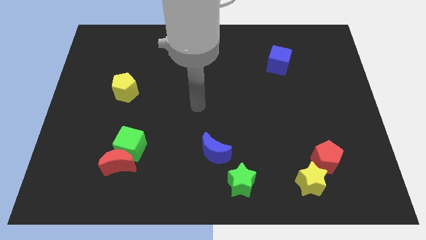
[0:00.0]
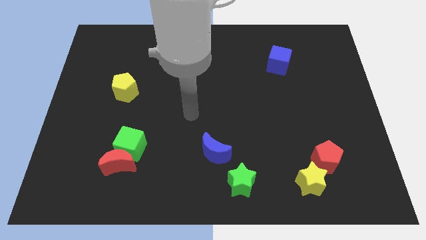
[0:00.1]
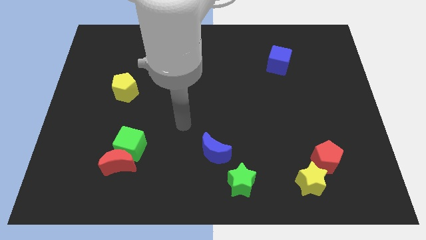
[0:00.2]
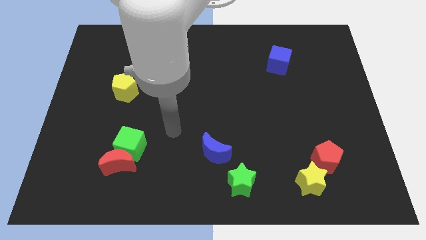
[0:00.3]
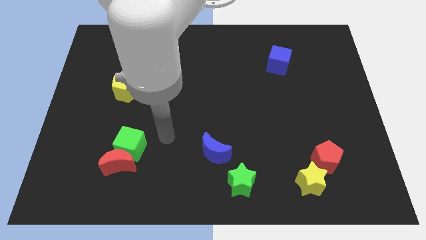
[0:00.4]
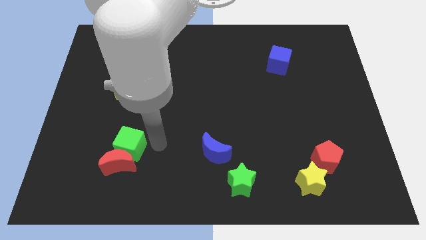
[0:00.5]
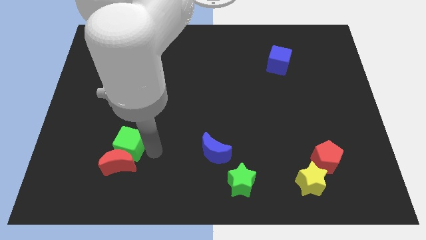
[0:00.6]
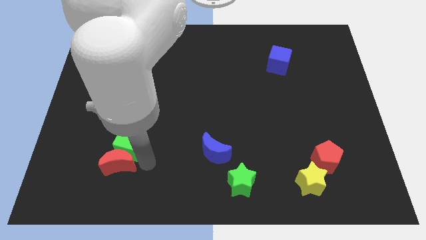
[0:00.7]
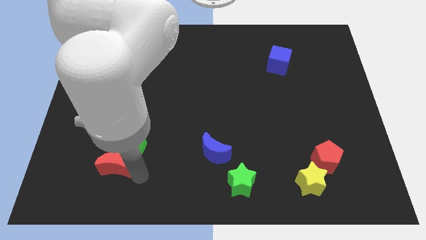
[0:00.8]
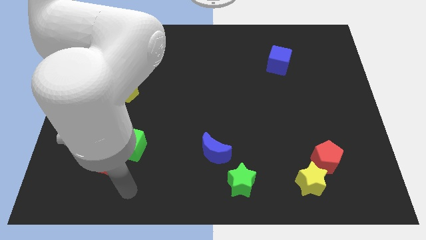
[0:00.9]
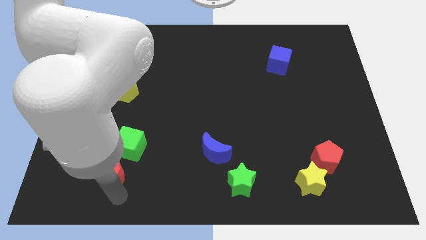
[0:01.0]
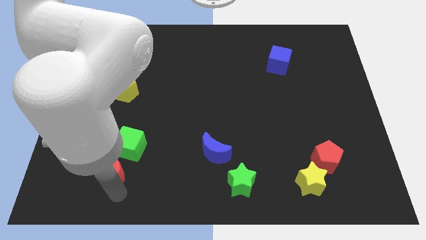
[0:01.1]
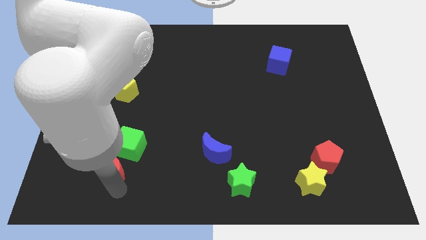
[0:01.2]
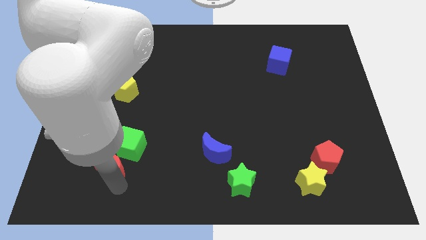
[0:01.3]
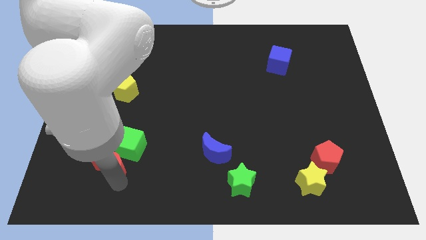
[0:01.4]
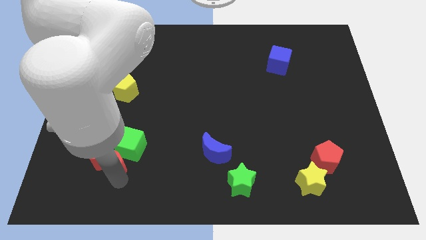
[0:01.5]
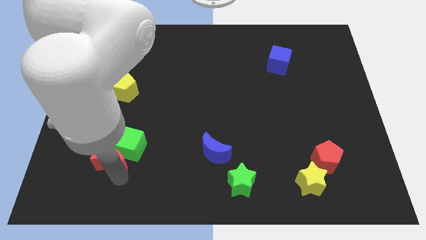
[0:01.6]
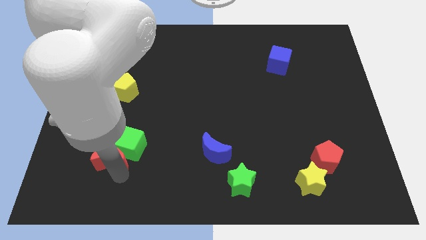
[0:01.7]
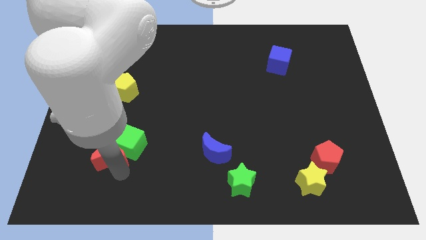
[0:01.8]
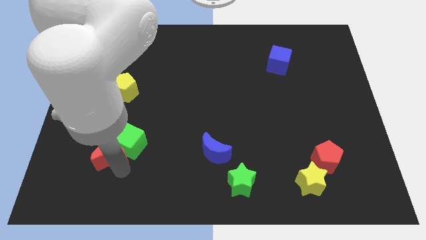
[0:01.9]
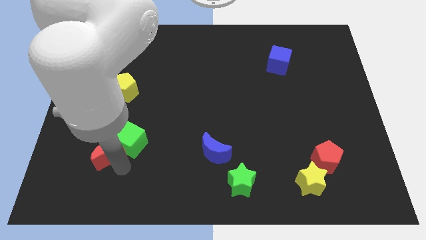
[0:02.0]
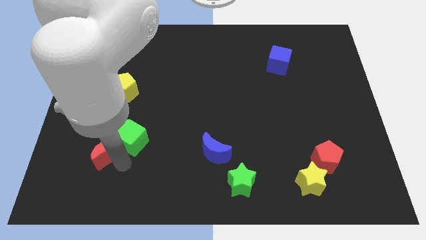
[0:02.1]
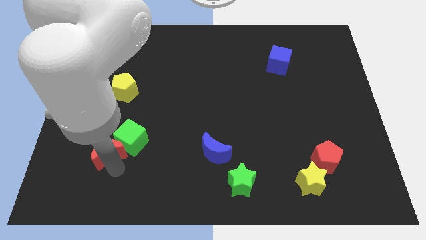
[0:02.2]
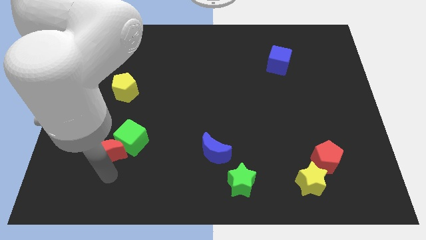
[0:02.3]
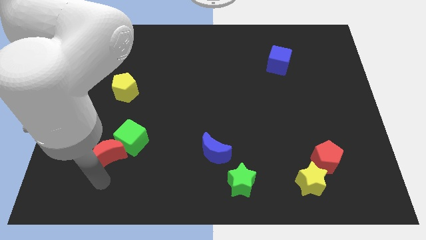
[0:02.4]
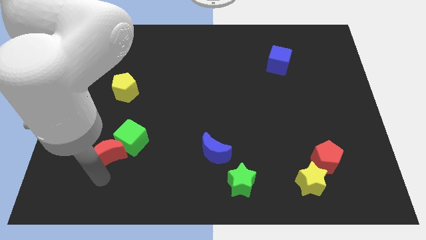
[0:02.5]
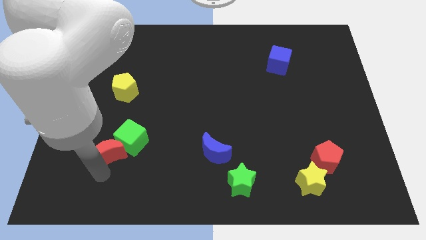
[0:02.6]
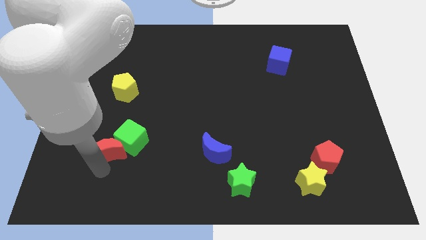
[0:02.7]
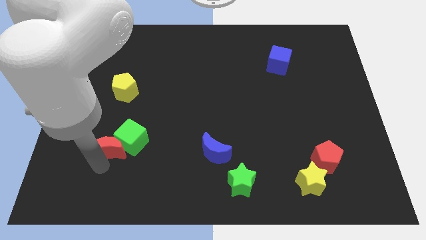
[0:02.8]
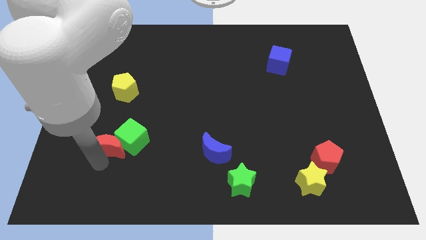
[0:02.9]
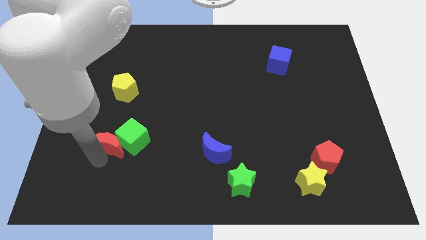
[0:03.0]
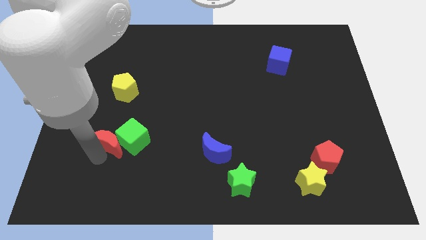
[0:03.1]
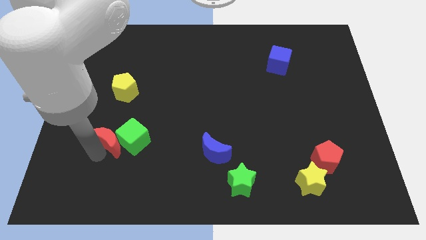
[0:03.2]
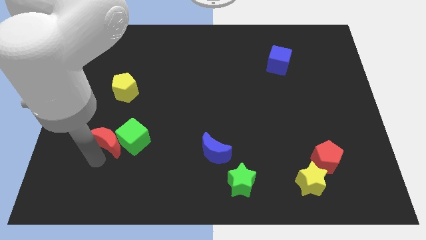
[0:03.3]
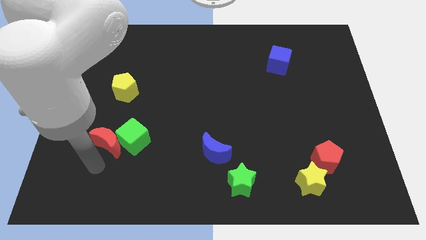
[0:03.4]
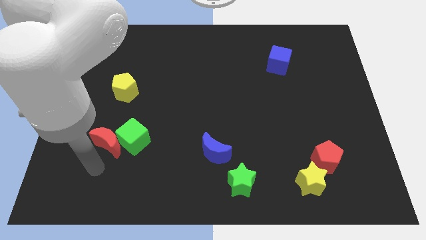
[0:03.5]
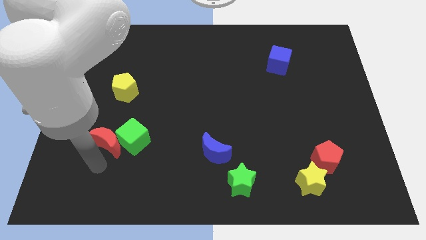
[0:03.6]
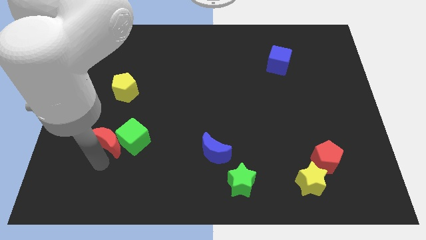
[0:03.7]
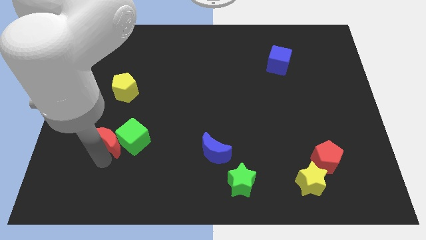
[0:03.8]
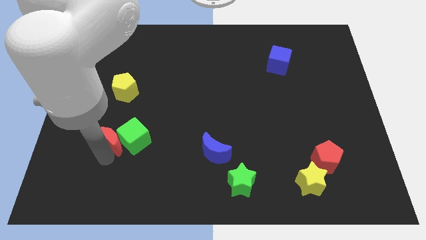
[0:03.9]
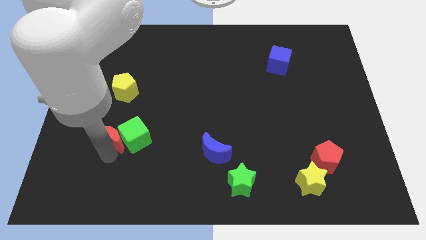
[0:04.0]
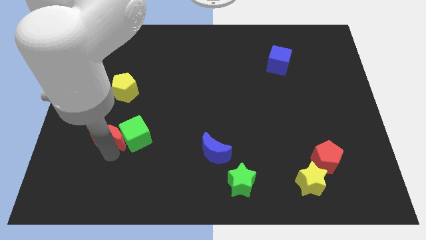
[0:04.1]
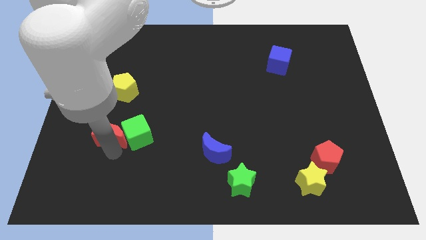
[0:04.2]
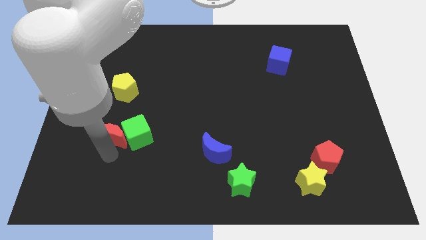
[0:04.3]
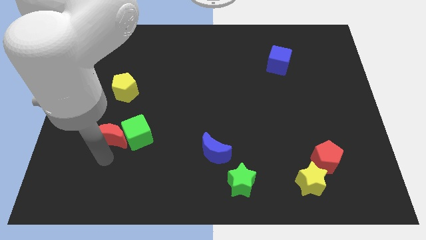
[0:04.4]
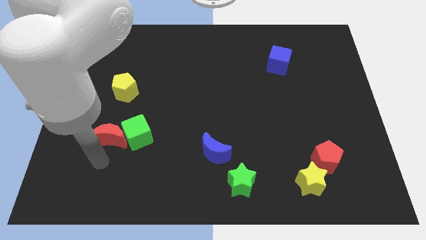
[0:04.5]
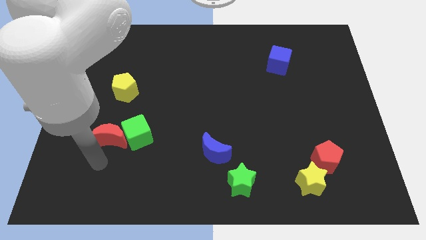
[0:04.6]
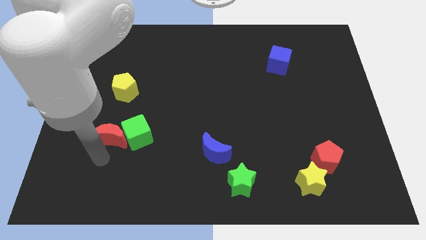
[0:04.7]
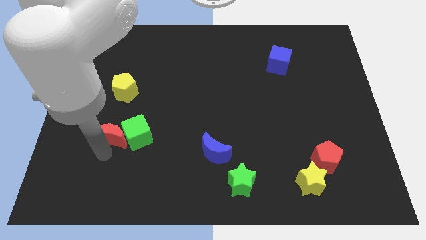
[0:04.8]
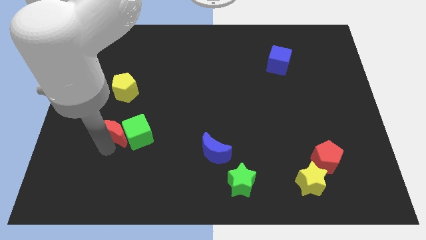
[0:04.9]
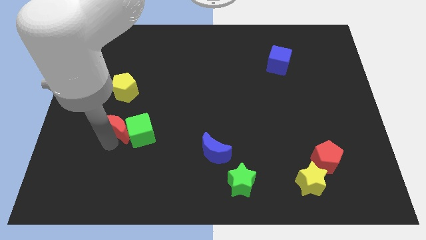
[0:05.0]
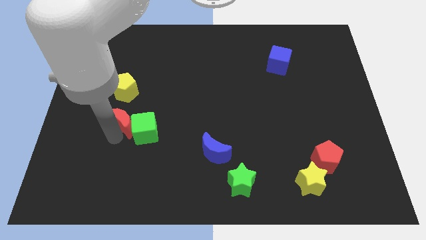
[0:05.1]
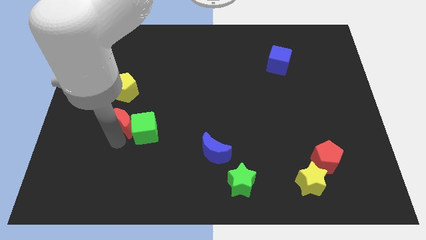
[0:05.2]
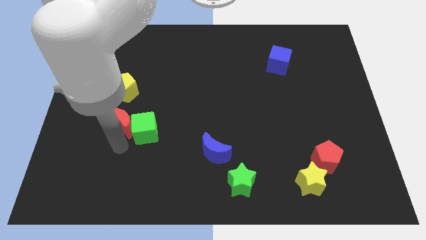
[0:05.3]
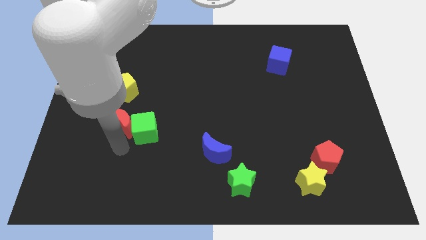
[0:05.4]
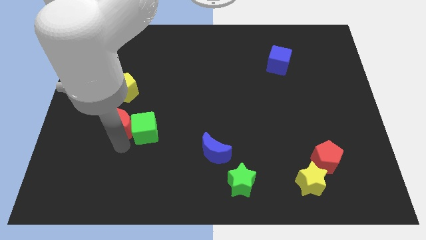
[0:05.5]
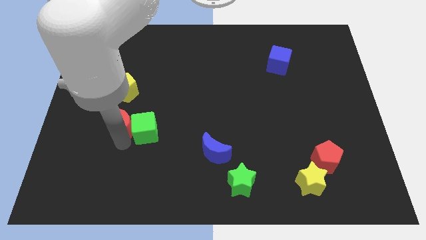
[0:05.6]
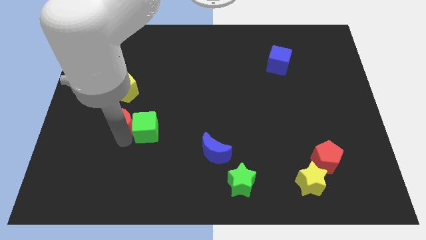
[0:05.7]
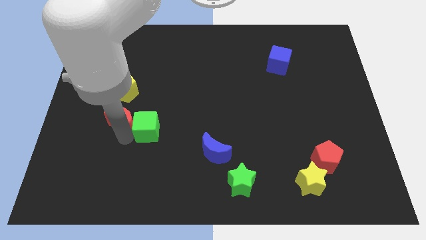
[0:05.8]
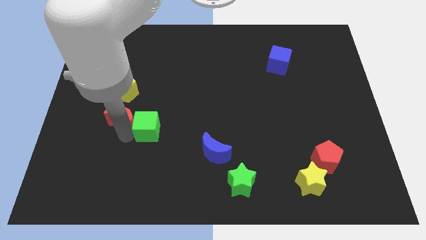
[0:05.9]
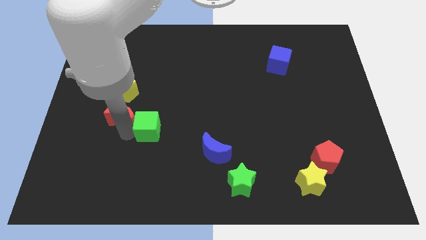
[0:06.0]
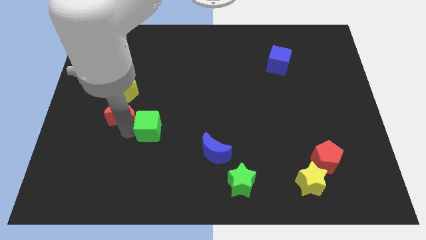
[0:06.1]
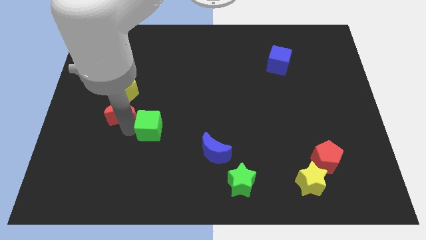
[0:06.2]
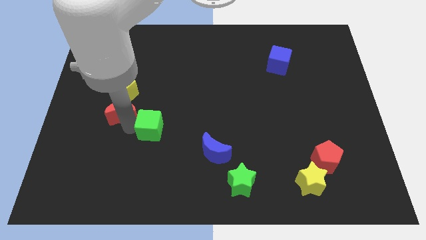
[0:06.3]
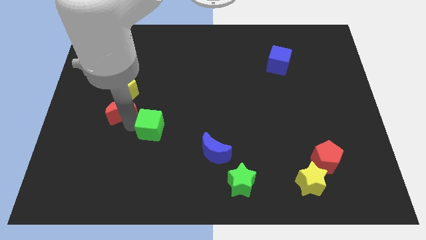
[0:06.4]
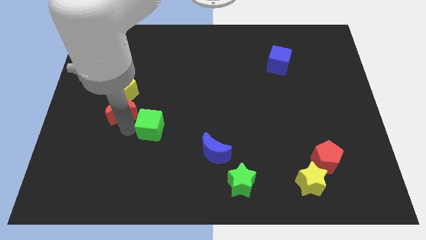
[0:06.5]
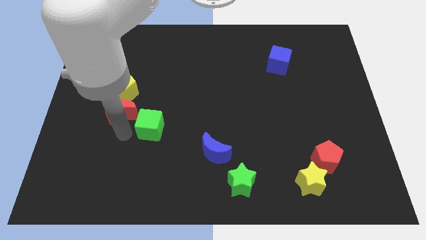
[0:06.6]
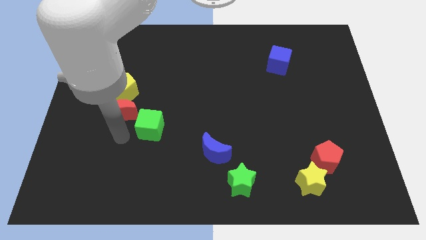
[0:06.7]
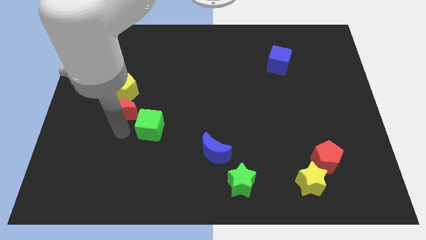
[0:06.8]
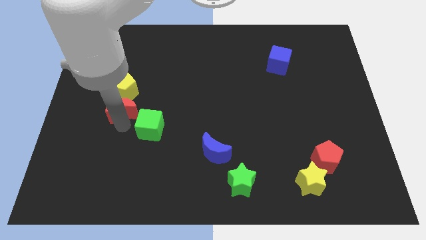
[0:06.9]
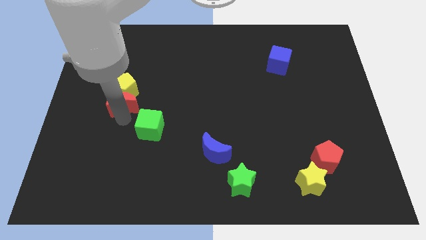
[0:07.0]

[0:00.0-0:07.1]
put the red moon close to the yellow pentagon

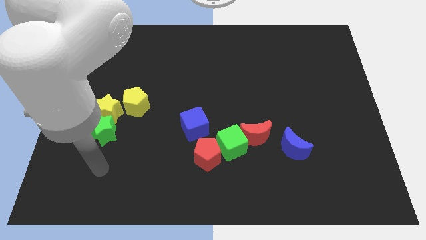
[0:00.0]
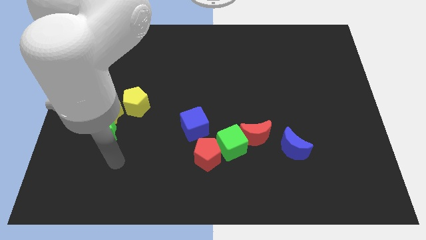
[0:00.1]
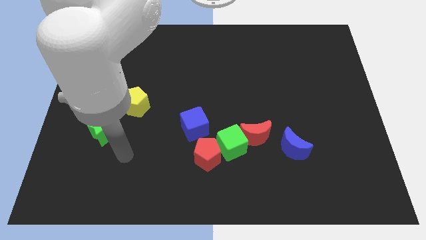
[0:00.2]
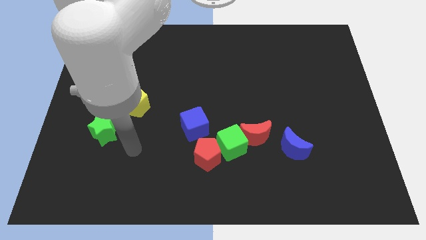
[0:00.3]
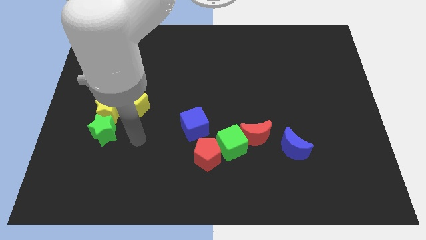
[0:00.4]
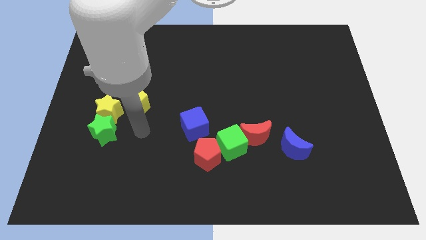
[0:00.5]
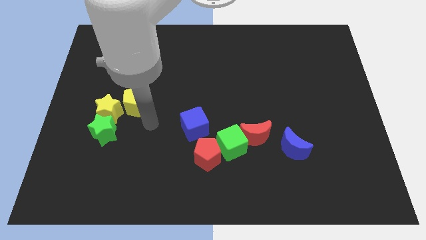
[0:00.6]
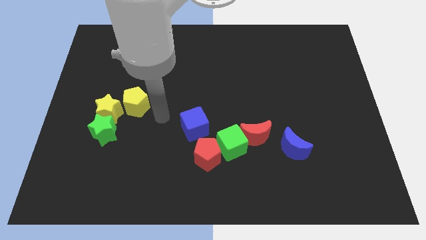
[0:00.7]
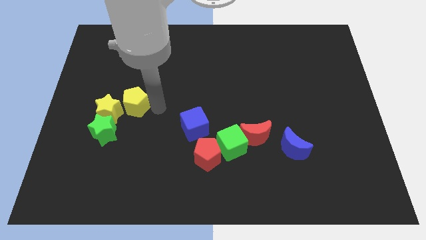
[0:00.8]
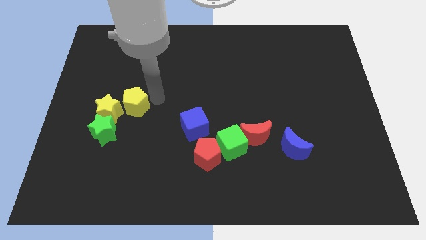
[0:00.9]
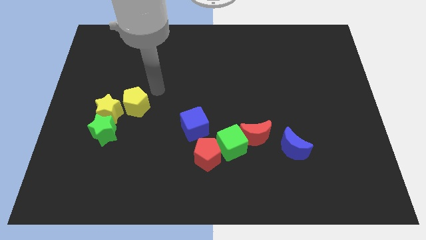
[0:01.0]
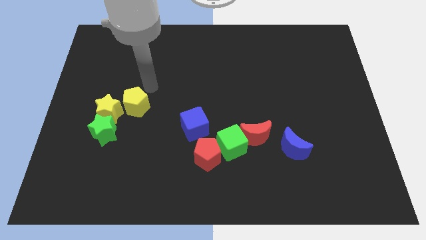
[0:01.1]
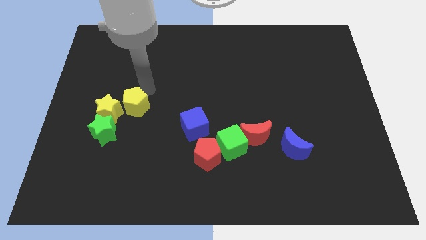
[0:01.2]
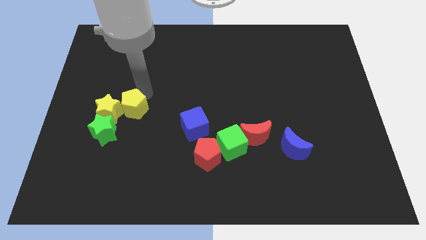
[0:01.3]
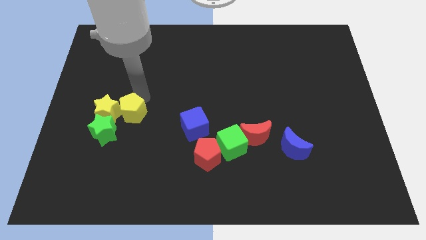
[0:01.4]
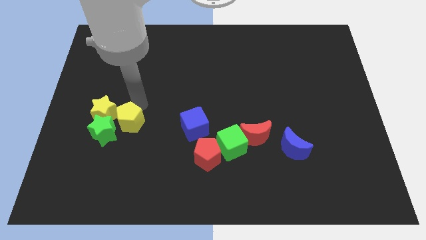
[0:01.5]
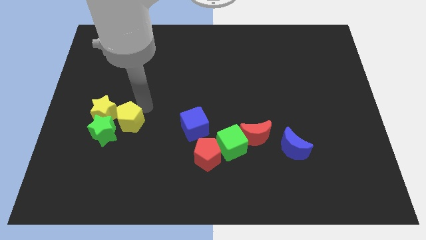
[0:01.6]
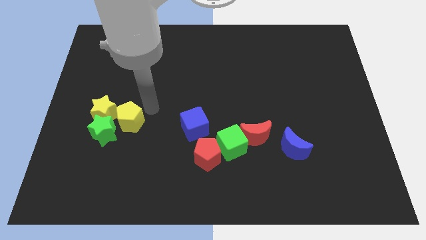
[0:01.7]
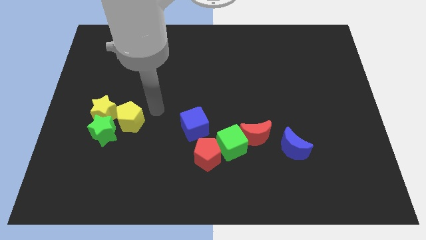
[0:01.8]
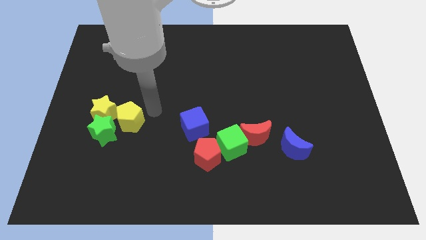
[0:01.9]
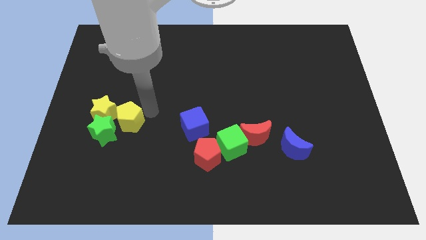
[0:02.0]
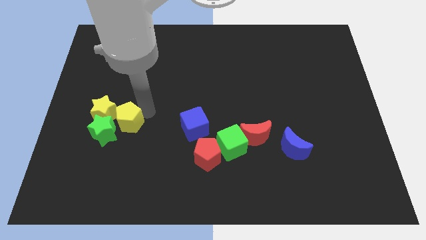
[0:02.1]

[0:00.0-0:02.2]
slide the yellow pentagon next to the green star
